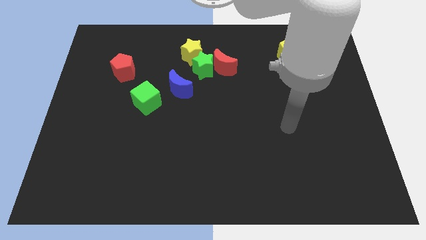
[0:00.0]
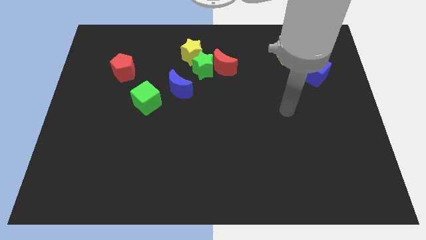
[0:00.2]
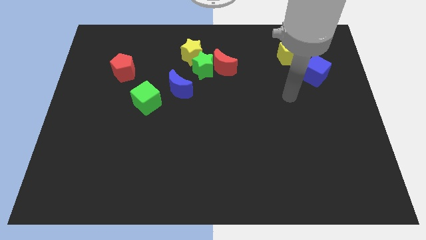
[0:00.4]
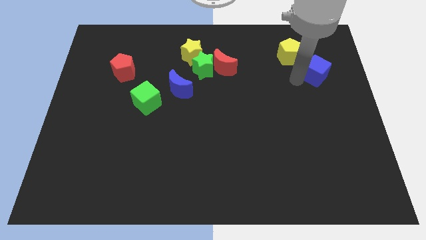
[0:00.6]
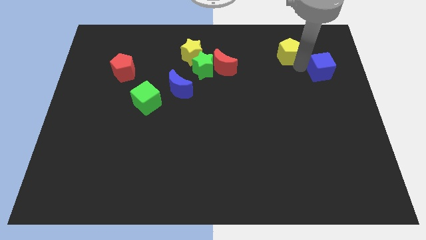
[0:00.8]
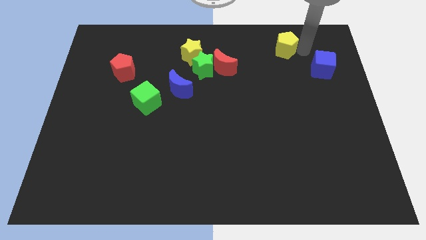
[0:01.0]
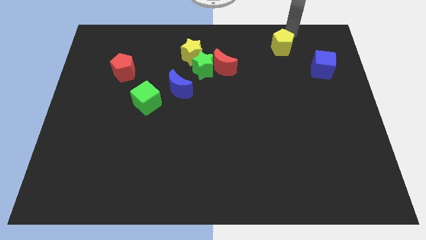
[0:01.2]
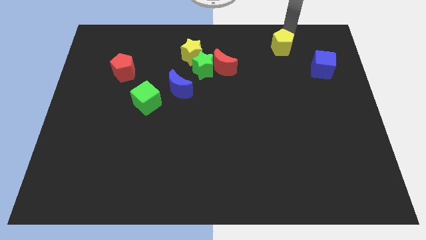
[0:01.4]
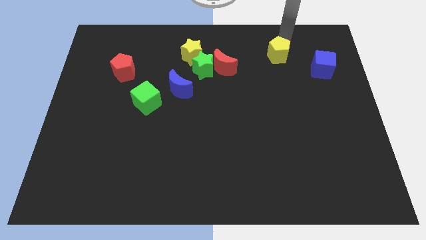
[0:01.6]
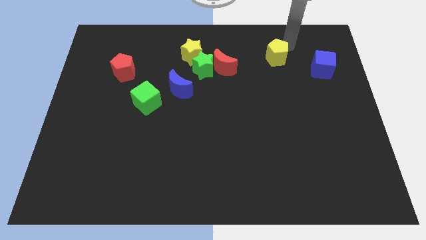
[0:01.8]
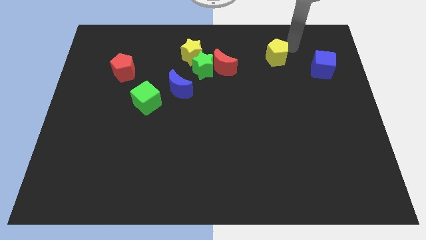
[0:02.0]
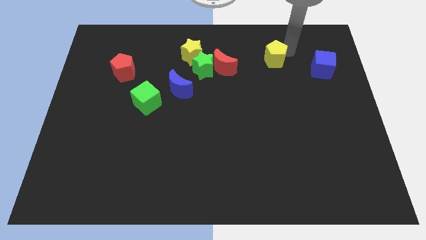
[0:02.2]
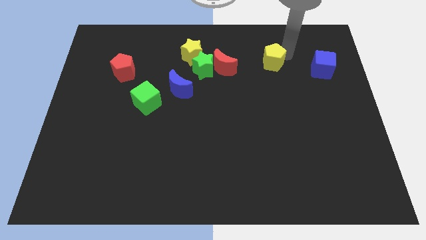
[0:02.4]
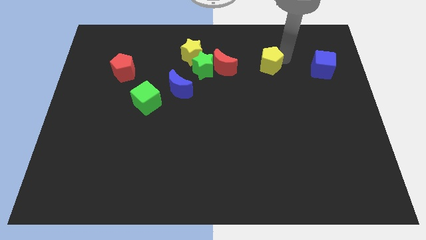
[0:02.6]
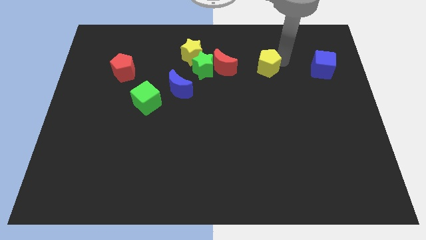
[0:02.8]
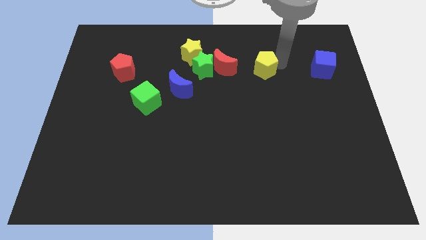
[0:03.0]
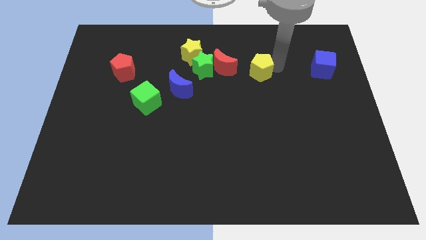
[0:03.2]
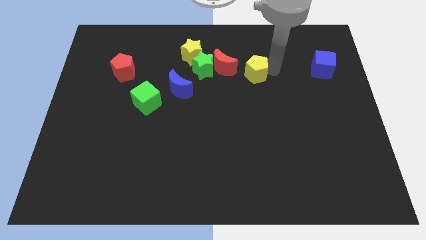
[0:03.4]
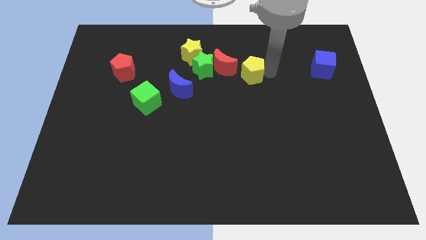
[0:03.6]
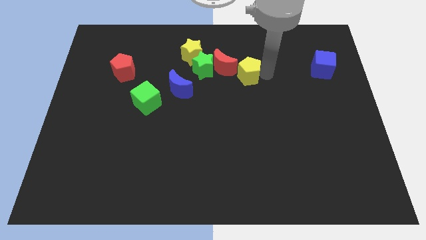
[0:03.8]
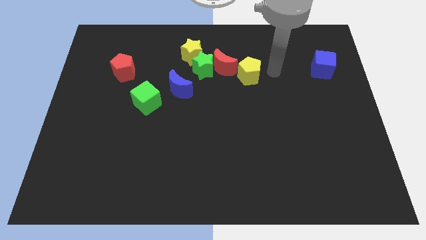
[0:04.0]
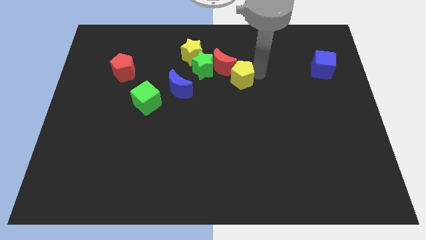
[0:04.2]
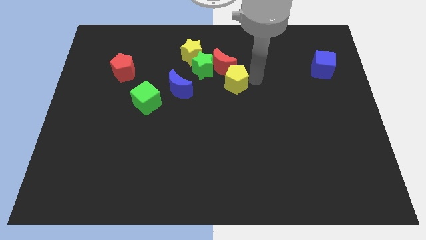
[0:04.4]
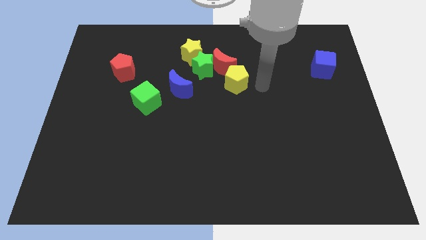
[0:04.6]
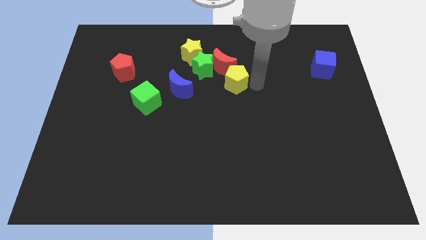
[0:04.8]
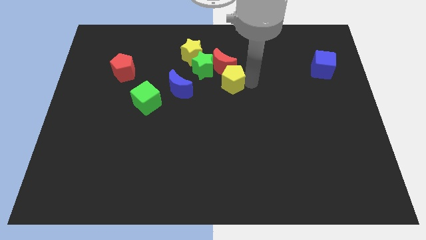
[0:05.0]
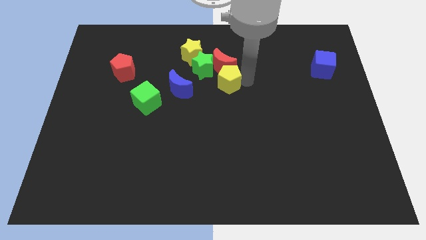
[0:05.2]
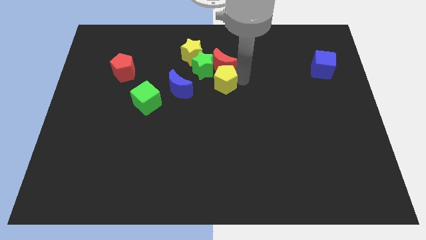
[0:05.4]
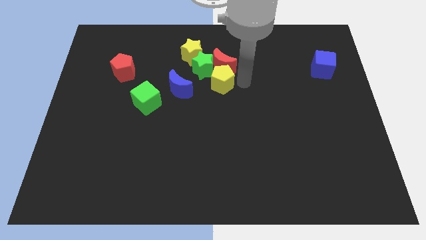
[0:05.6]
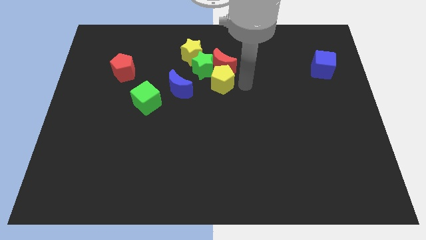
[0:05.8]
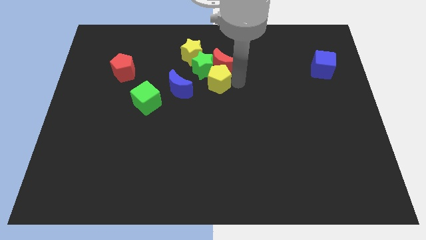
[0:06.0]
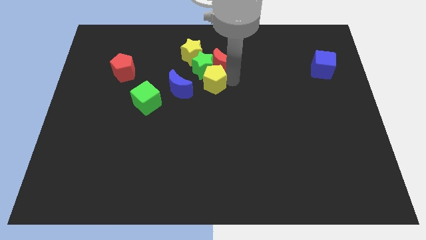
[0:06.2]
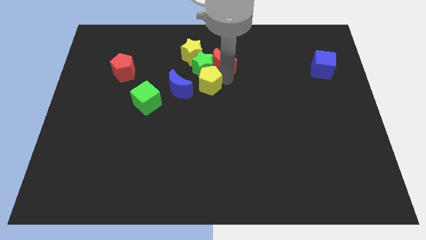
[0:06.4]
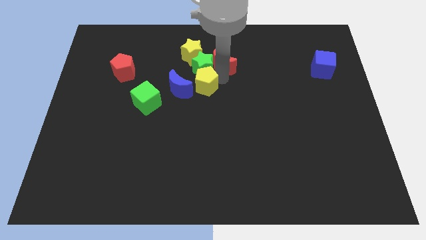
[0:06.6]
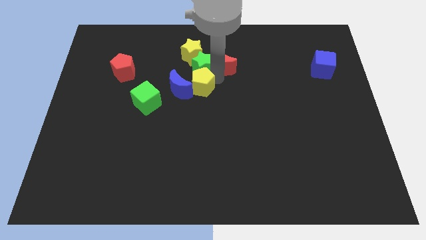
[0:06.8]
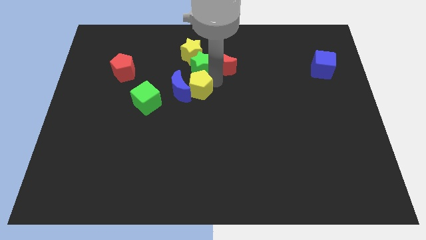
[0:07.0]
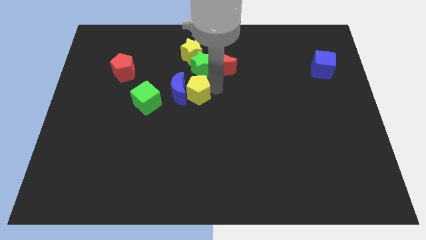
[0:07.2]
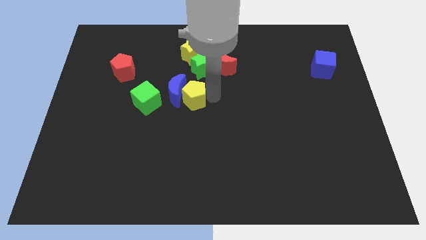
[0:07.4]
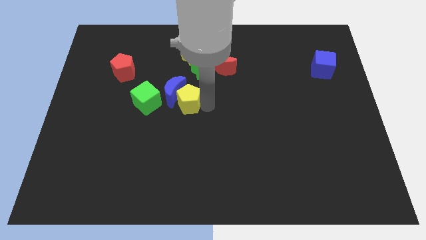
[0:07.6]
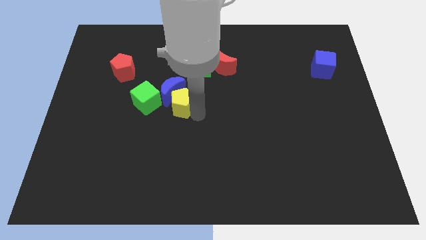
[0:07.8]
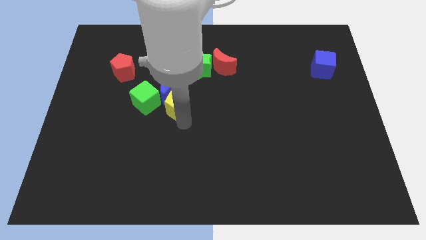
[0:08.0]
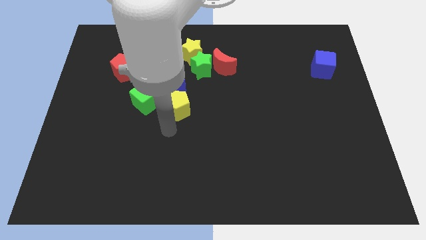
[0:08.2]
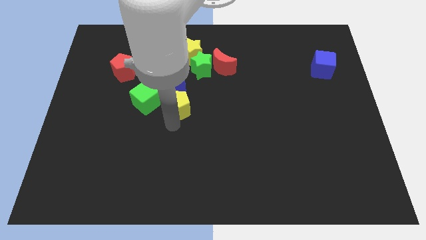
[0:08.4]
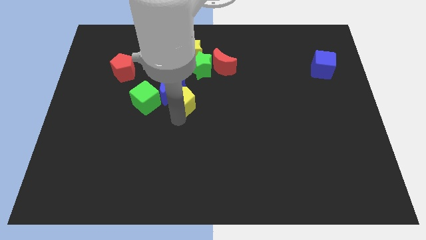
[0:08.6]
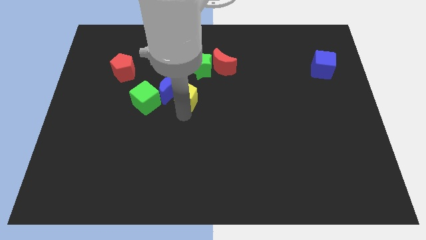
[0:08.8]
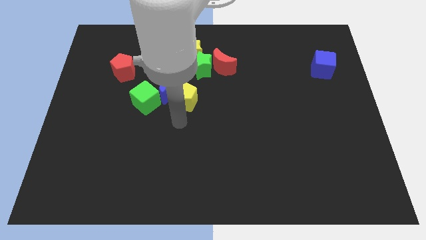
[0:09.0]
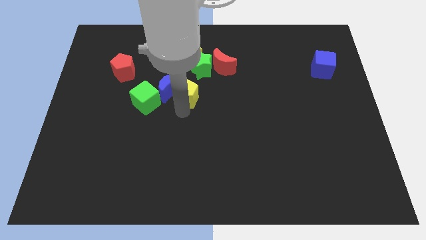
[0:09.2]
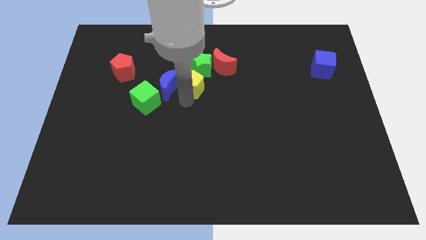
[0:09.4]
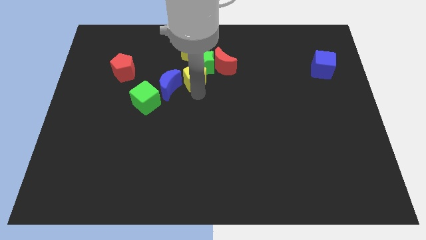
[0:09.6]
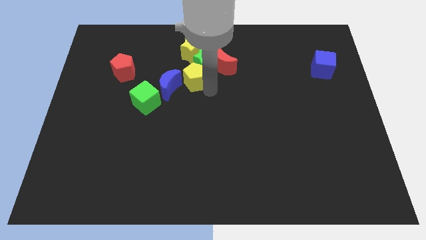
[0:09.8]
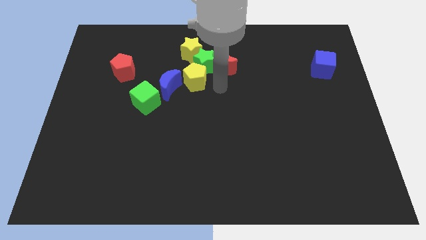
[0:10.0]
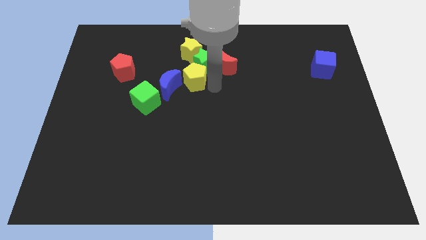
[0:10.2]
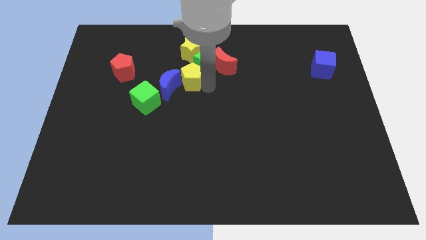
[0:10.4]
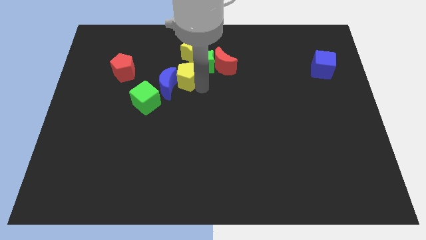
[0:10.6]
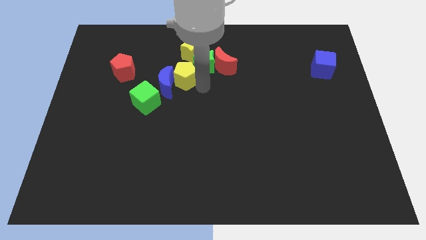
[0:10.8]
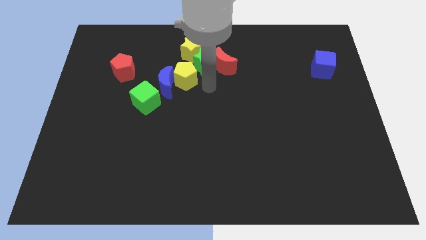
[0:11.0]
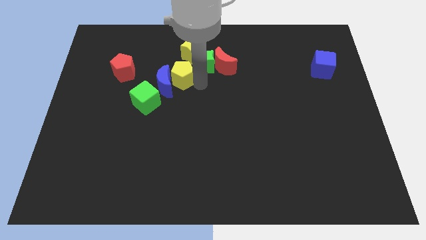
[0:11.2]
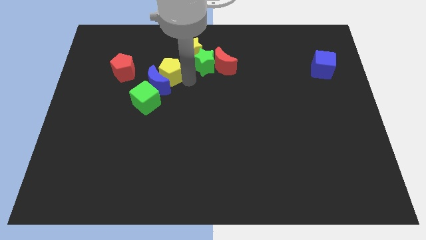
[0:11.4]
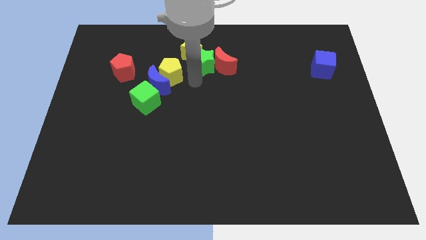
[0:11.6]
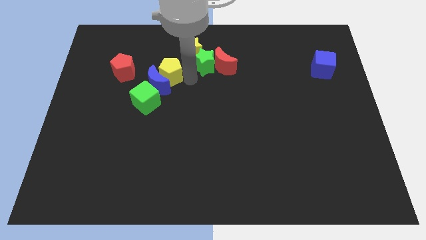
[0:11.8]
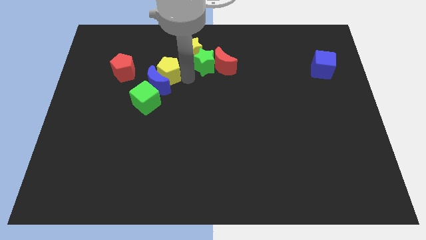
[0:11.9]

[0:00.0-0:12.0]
push the yellow pentagon above the green cube
